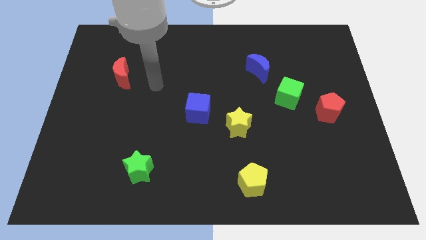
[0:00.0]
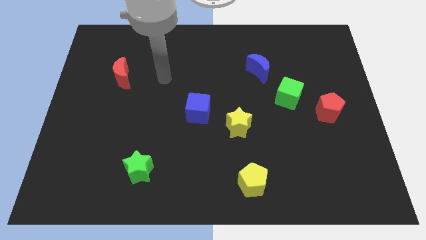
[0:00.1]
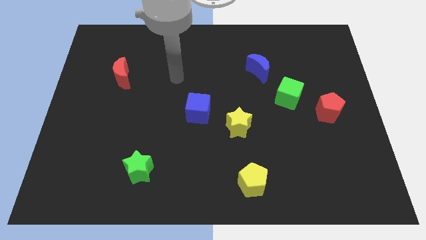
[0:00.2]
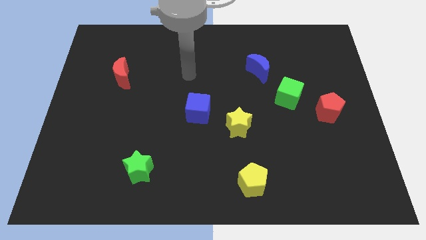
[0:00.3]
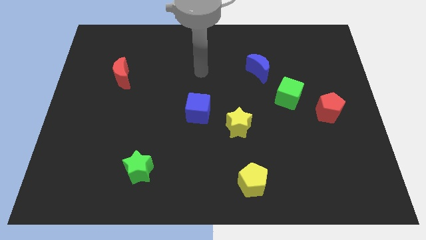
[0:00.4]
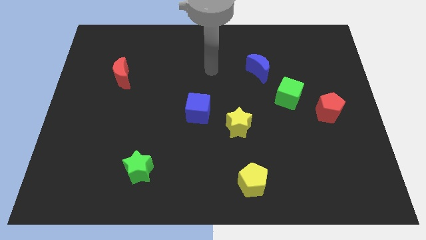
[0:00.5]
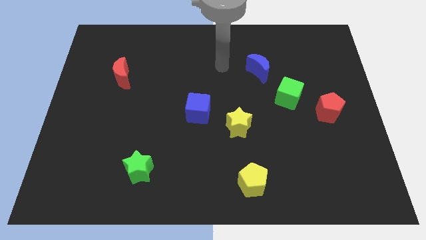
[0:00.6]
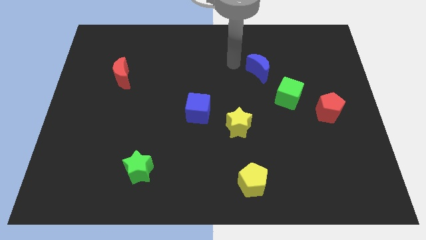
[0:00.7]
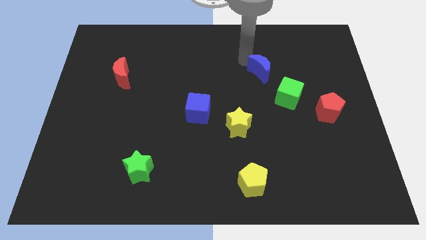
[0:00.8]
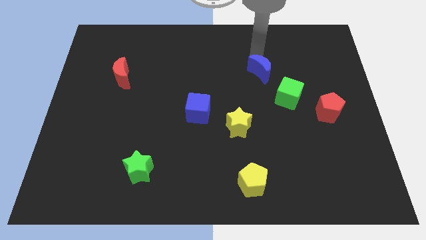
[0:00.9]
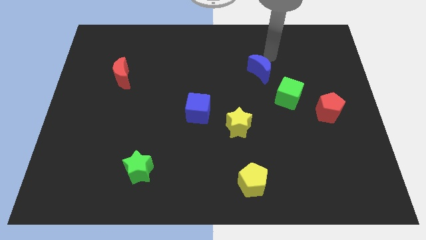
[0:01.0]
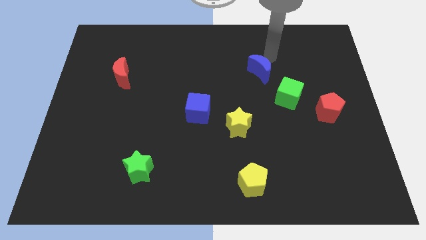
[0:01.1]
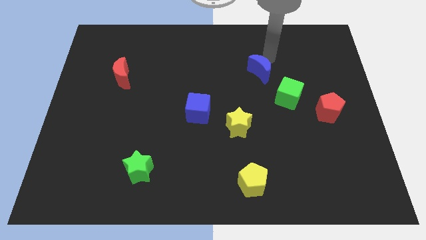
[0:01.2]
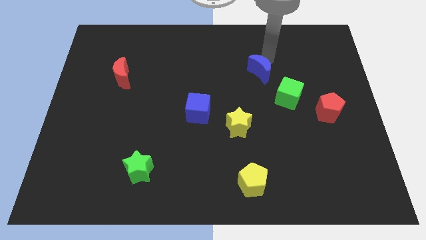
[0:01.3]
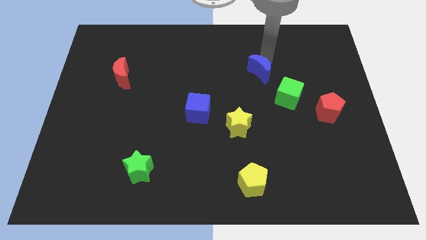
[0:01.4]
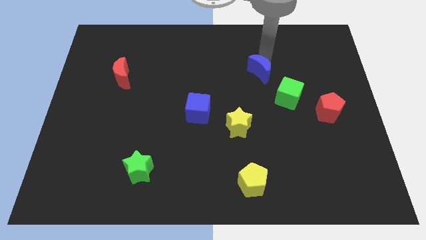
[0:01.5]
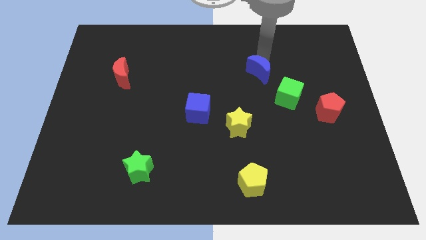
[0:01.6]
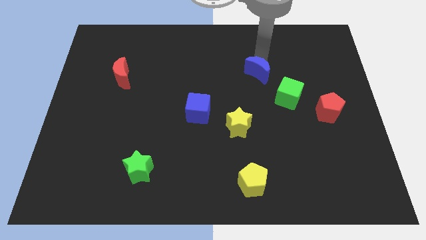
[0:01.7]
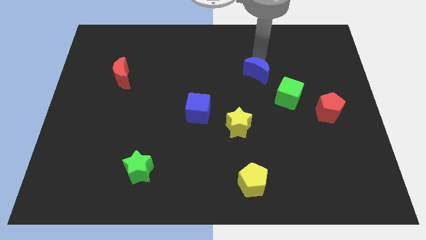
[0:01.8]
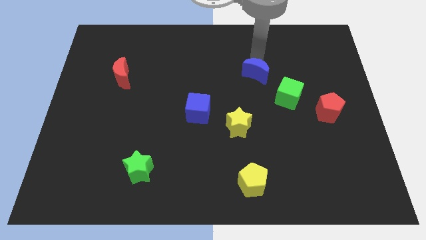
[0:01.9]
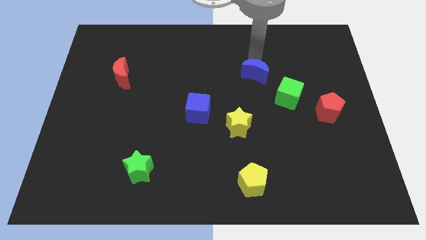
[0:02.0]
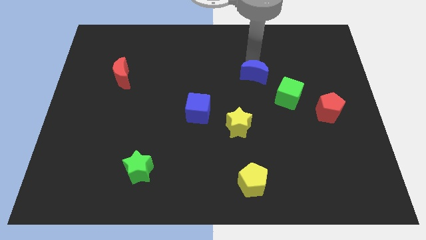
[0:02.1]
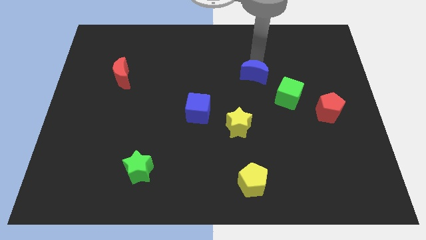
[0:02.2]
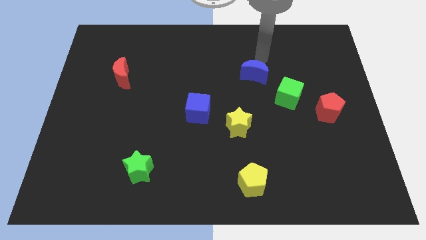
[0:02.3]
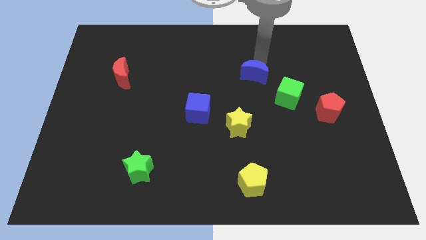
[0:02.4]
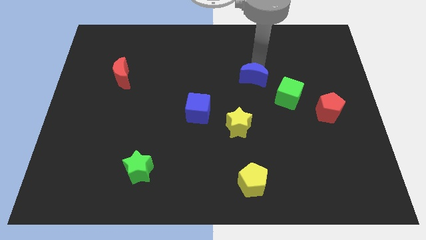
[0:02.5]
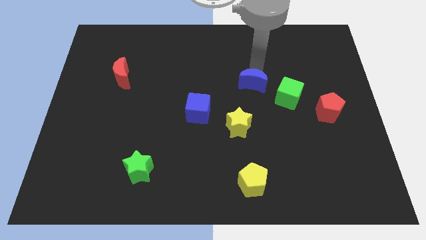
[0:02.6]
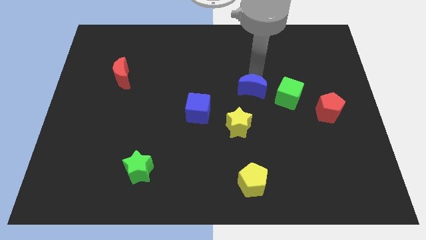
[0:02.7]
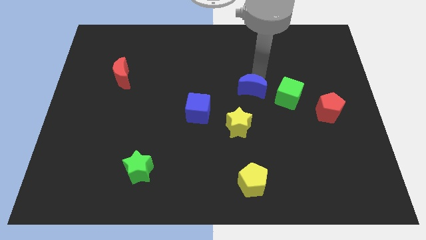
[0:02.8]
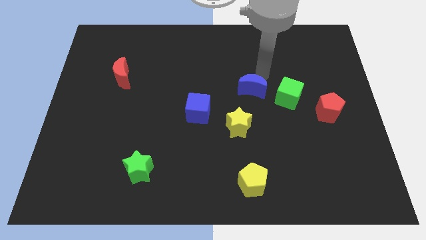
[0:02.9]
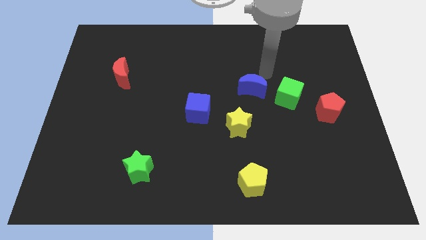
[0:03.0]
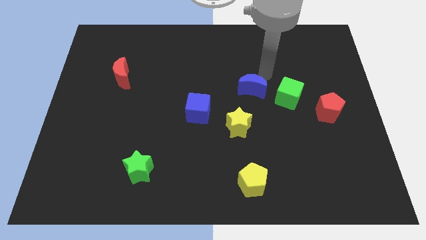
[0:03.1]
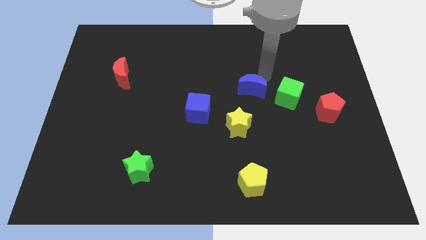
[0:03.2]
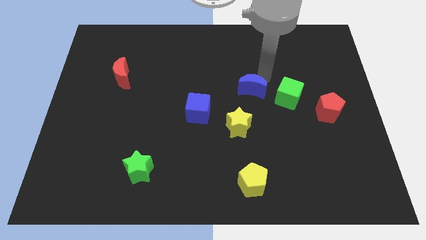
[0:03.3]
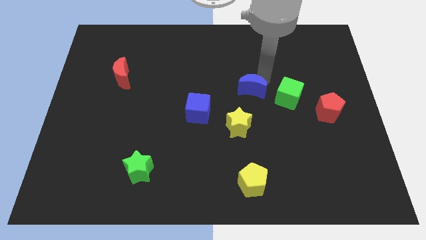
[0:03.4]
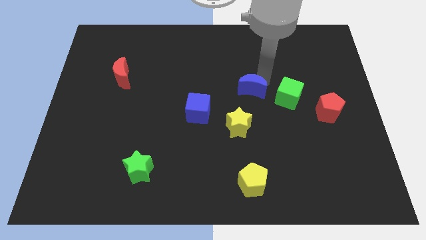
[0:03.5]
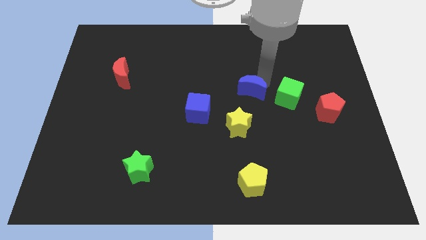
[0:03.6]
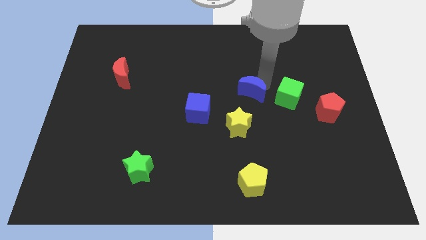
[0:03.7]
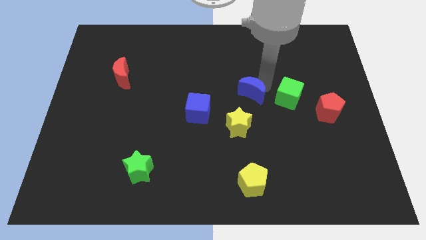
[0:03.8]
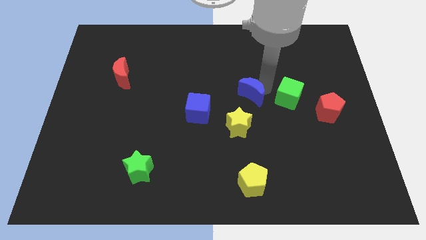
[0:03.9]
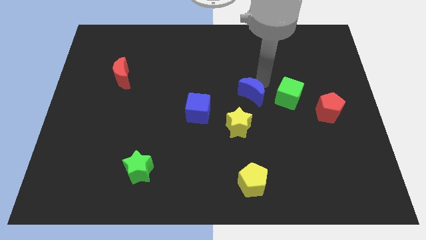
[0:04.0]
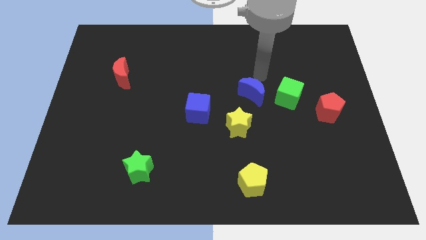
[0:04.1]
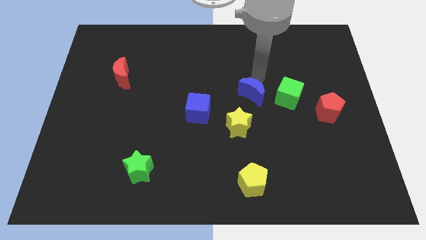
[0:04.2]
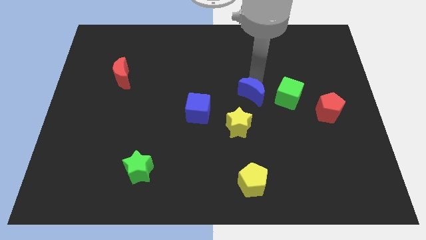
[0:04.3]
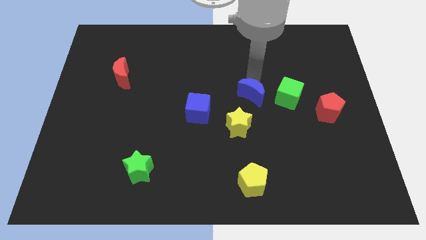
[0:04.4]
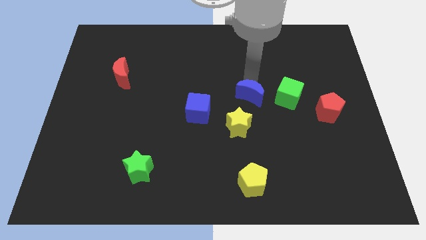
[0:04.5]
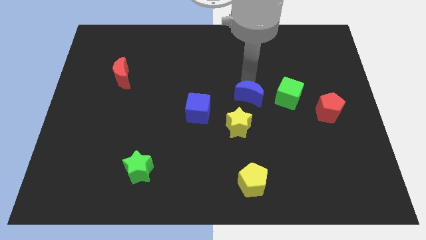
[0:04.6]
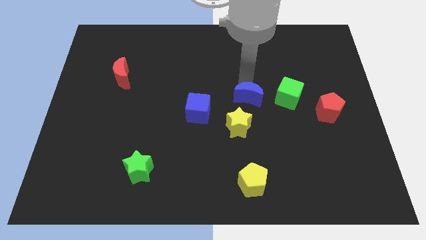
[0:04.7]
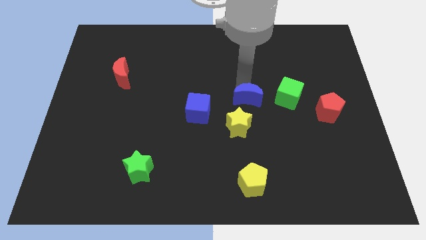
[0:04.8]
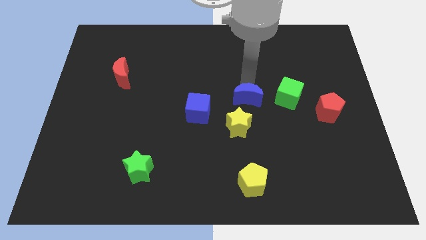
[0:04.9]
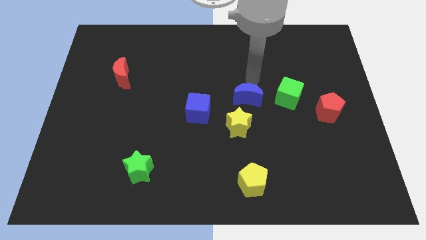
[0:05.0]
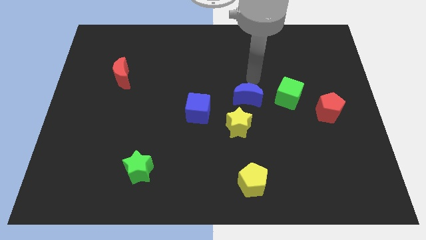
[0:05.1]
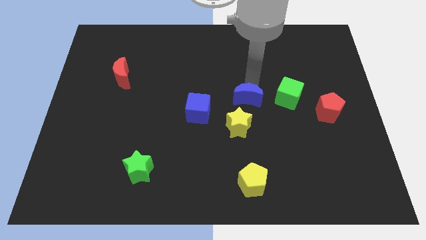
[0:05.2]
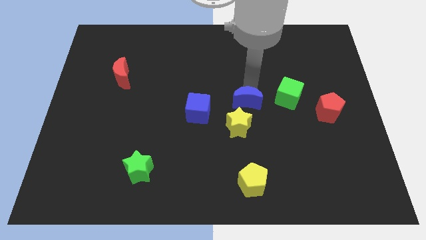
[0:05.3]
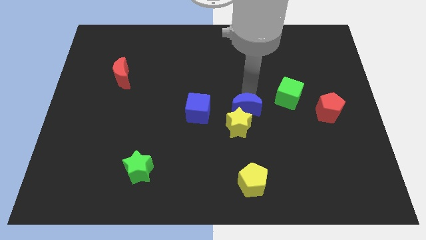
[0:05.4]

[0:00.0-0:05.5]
move the blue moon close to the yellow star

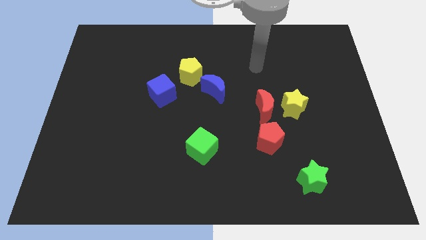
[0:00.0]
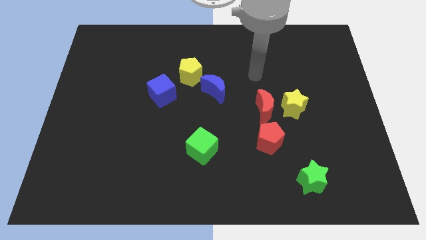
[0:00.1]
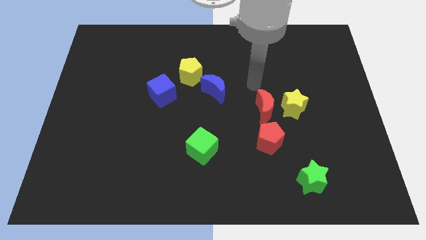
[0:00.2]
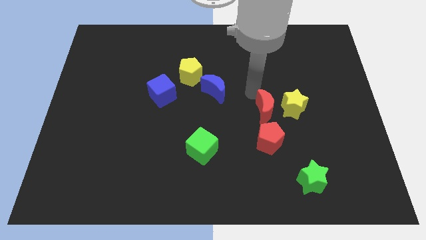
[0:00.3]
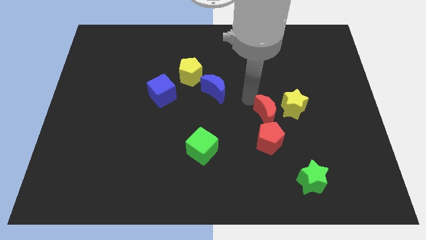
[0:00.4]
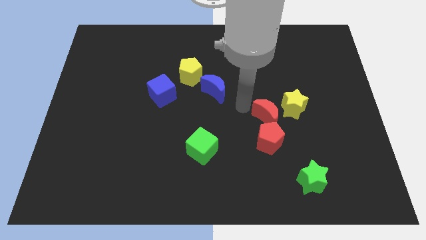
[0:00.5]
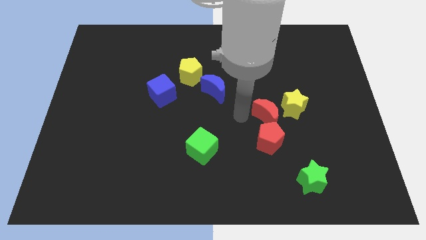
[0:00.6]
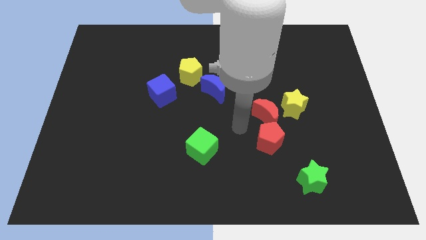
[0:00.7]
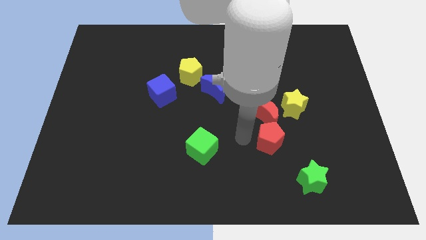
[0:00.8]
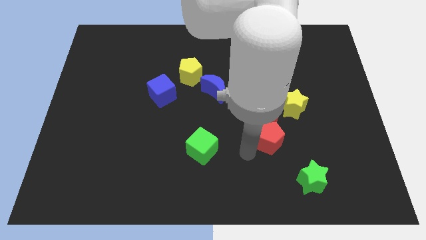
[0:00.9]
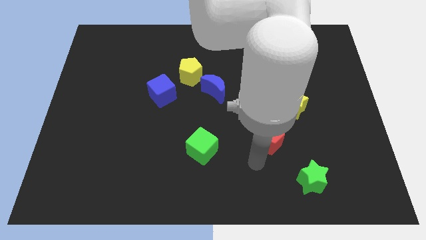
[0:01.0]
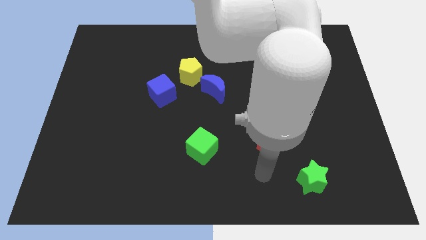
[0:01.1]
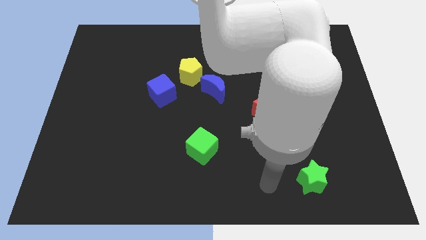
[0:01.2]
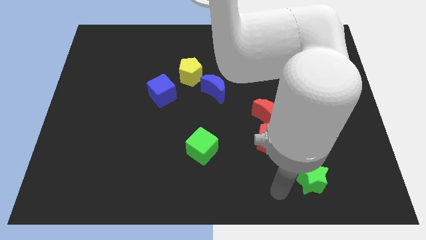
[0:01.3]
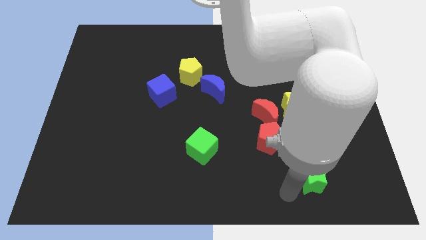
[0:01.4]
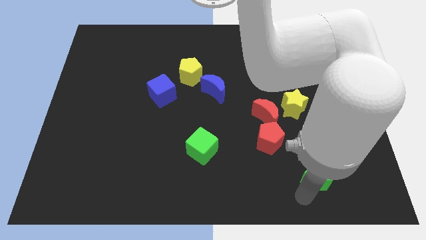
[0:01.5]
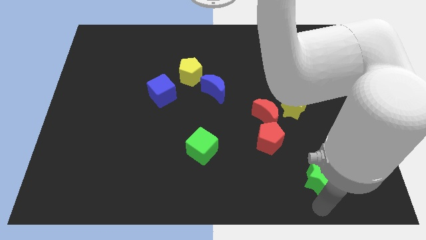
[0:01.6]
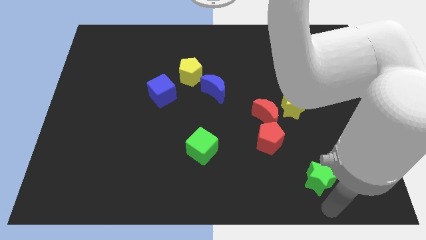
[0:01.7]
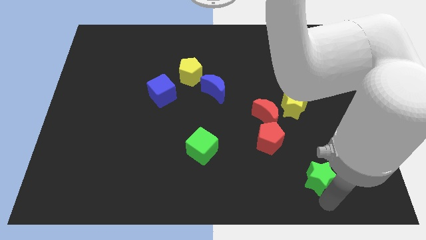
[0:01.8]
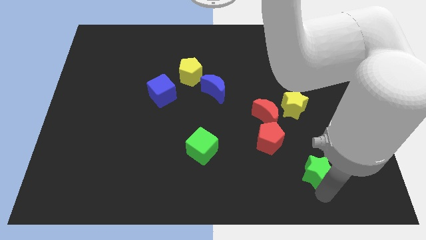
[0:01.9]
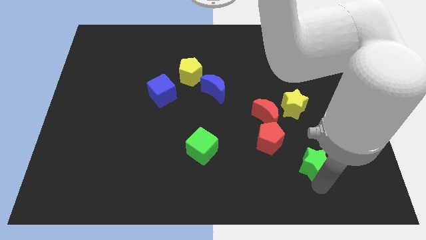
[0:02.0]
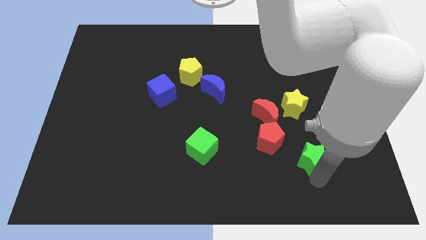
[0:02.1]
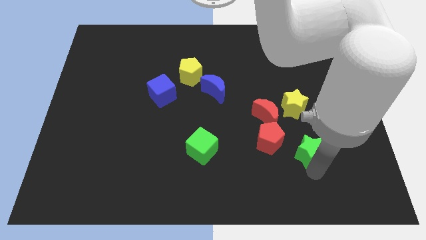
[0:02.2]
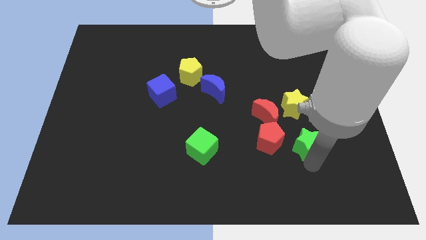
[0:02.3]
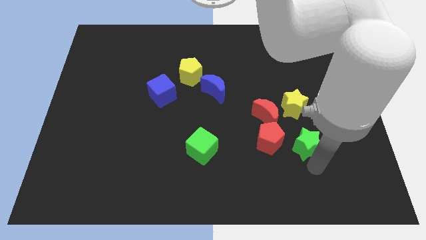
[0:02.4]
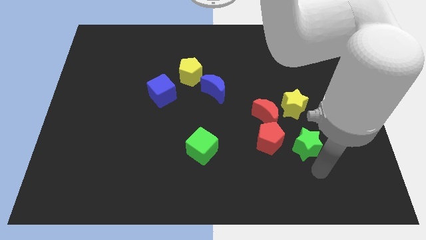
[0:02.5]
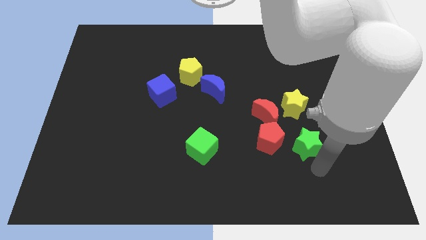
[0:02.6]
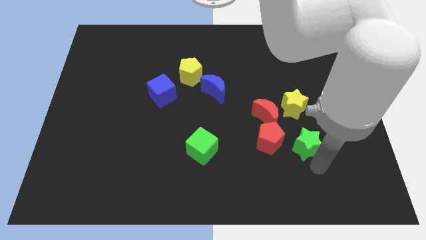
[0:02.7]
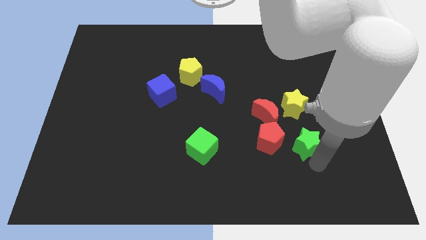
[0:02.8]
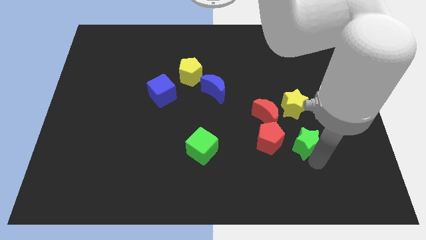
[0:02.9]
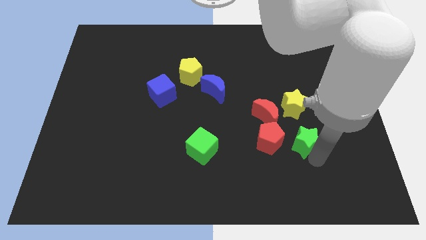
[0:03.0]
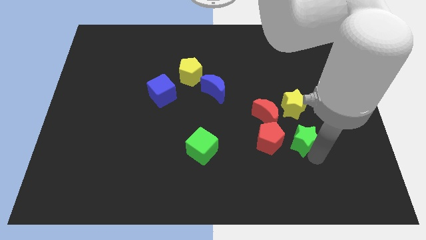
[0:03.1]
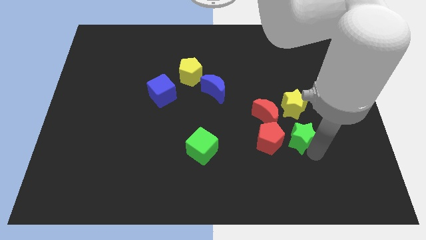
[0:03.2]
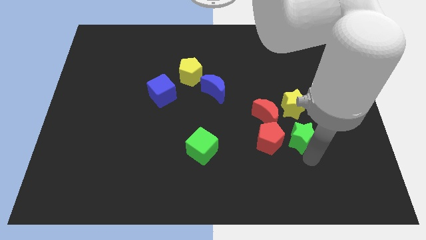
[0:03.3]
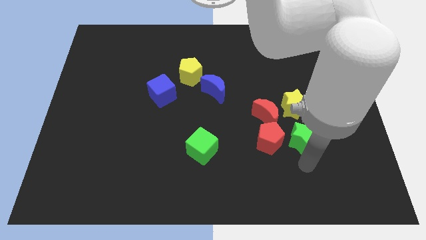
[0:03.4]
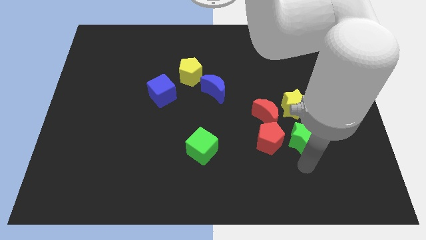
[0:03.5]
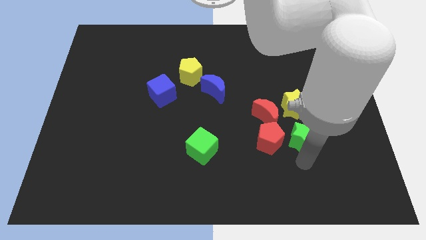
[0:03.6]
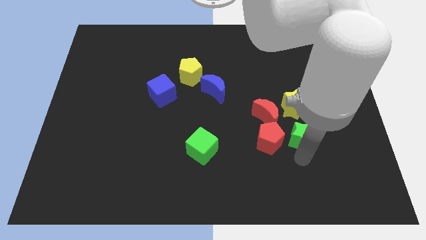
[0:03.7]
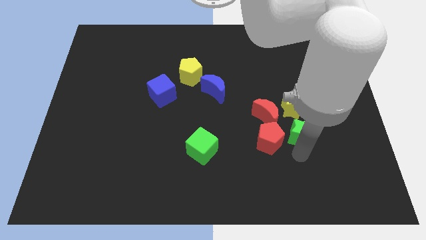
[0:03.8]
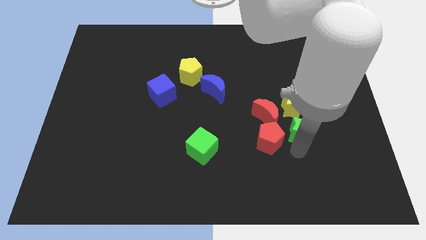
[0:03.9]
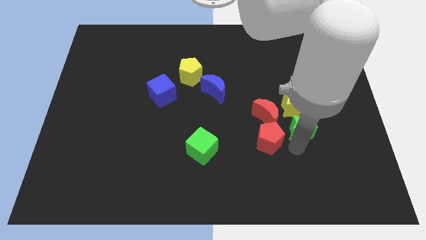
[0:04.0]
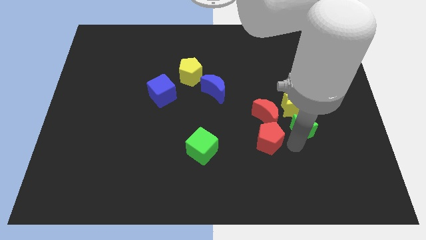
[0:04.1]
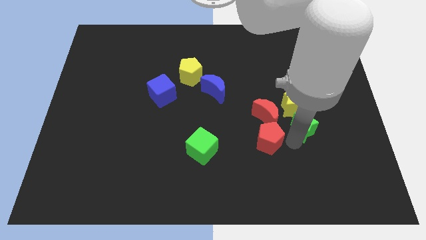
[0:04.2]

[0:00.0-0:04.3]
put the green star next to the yellow star
